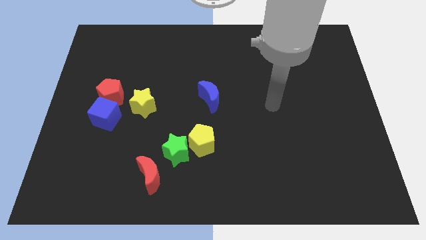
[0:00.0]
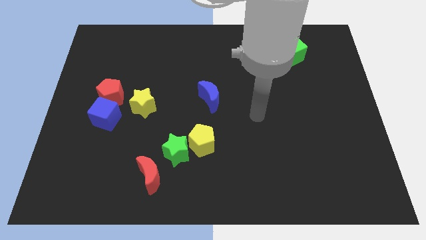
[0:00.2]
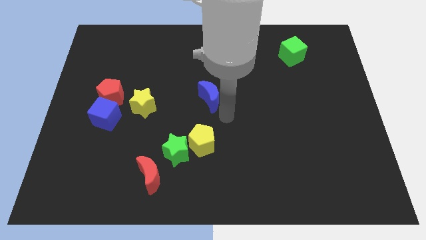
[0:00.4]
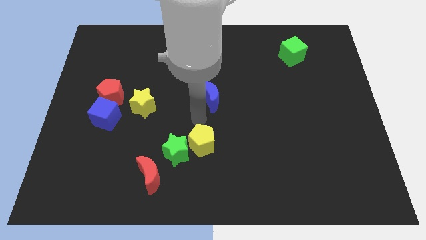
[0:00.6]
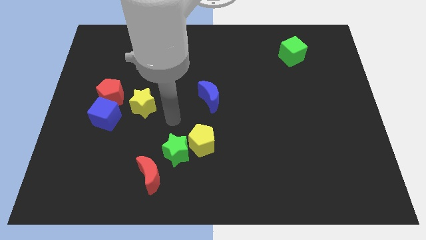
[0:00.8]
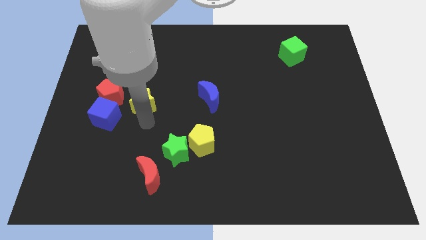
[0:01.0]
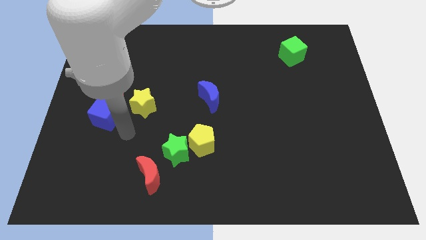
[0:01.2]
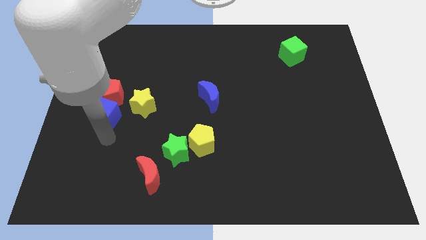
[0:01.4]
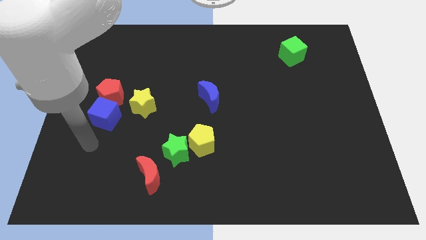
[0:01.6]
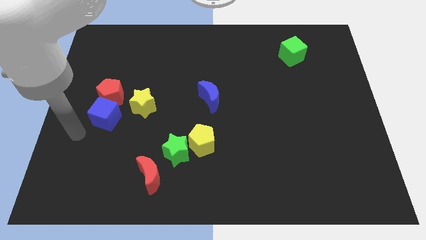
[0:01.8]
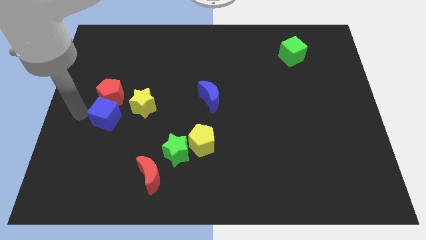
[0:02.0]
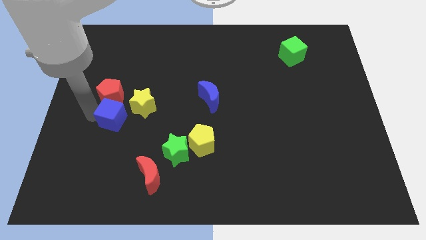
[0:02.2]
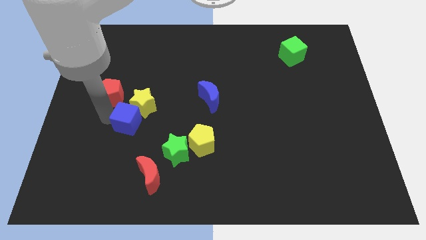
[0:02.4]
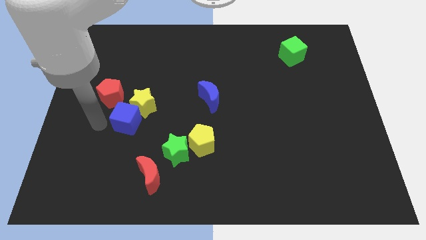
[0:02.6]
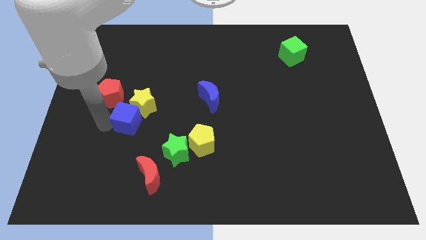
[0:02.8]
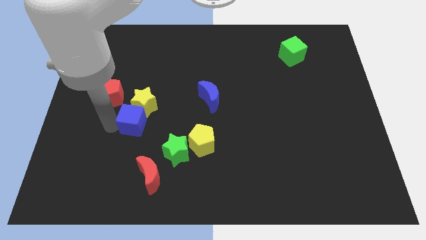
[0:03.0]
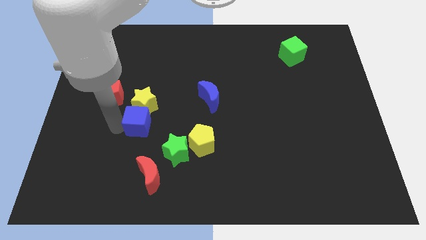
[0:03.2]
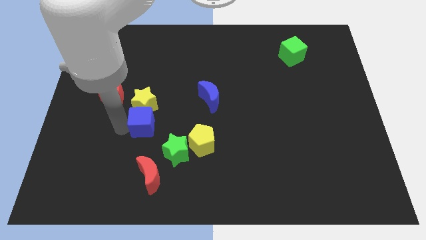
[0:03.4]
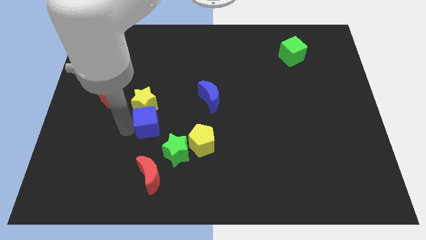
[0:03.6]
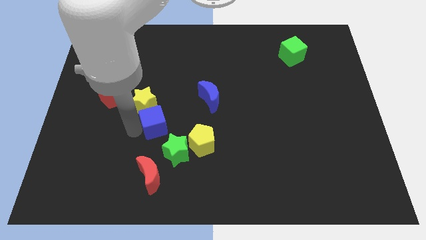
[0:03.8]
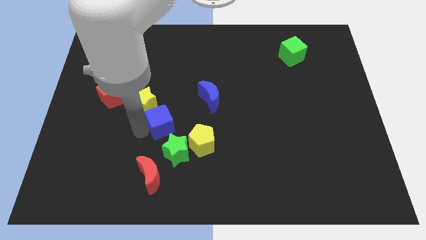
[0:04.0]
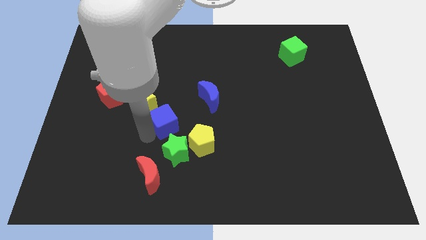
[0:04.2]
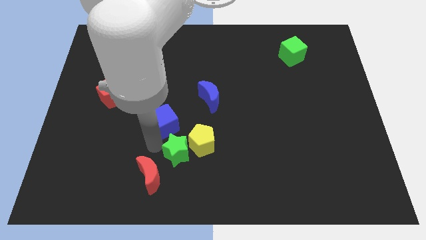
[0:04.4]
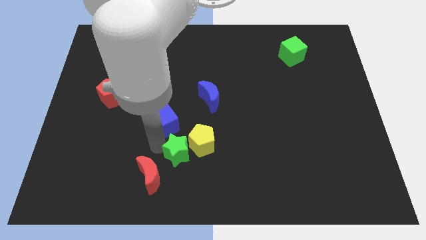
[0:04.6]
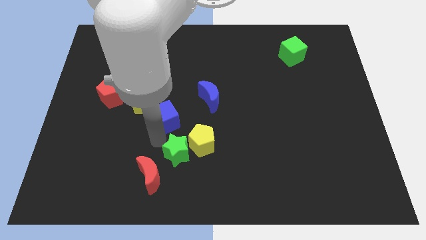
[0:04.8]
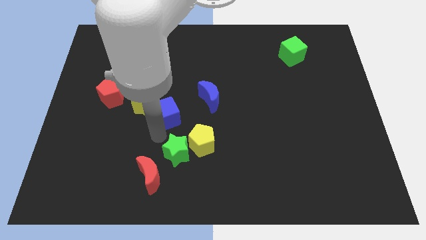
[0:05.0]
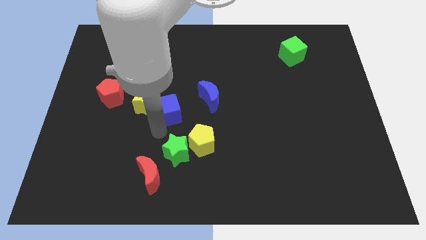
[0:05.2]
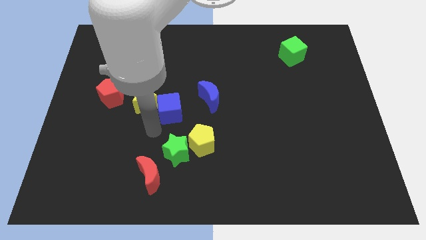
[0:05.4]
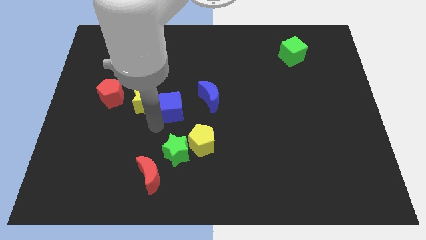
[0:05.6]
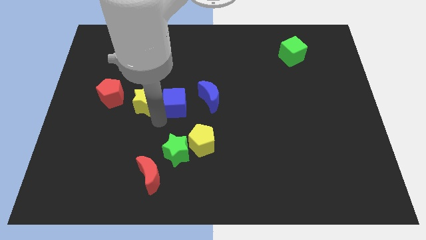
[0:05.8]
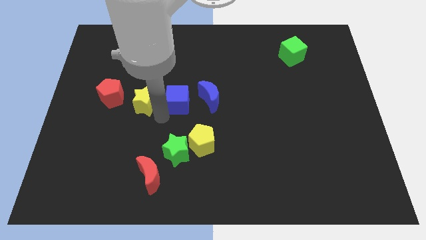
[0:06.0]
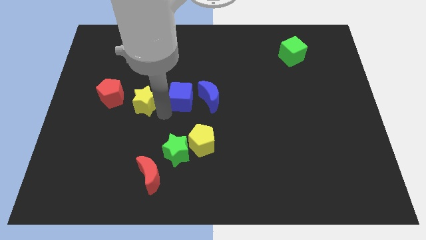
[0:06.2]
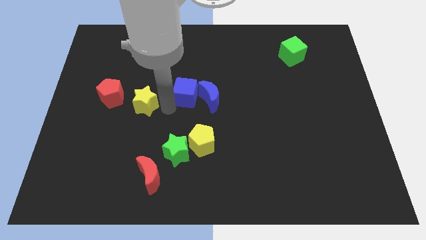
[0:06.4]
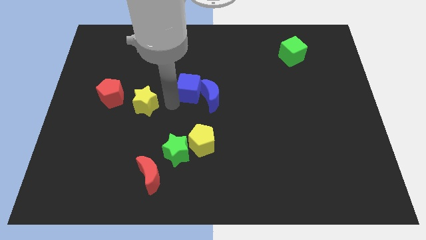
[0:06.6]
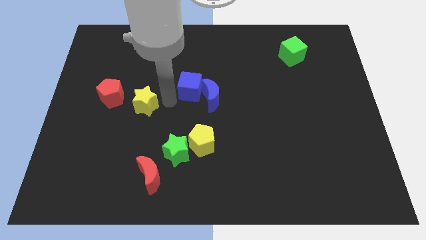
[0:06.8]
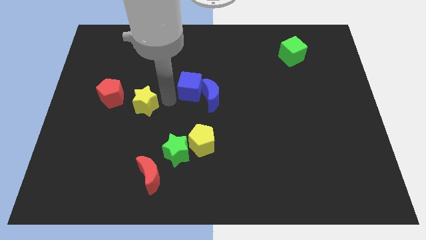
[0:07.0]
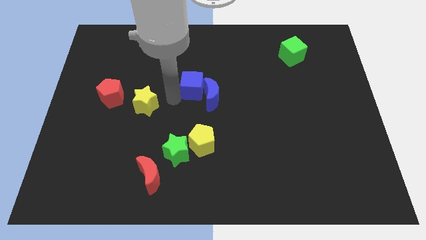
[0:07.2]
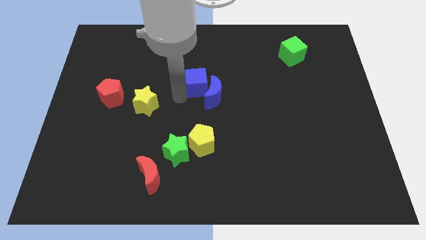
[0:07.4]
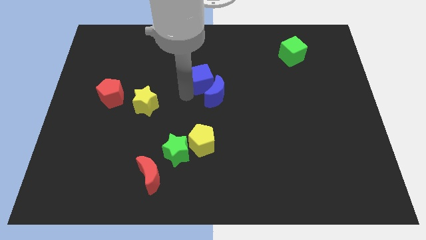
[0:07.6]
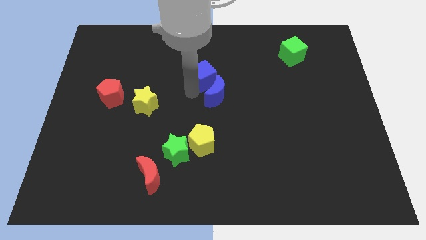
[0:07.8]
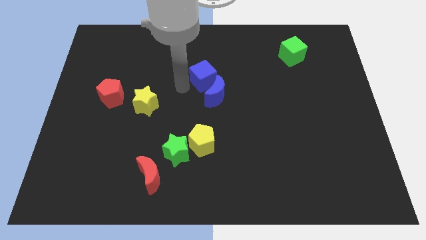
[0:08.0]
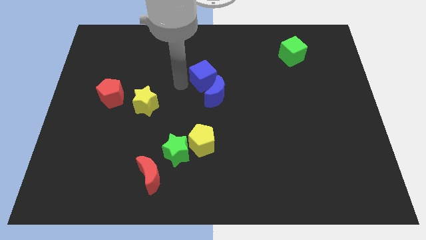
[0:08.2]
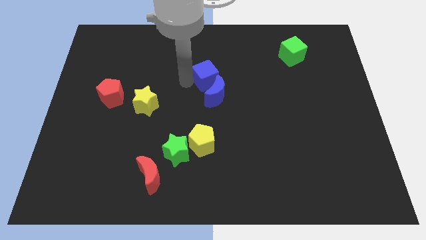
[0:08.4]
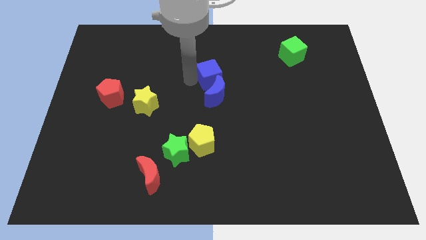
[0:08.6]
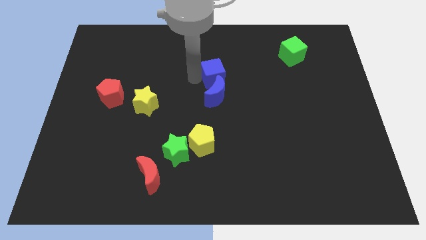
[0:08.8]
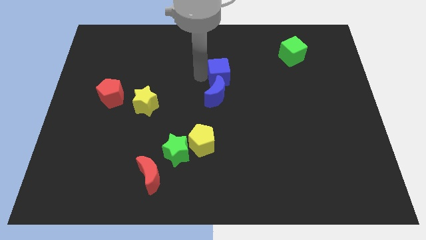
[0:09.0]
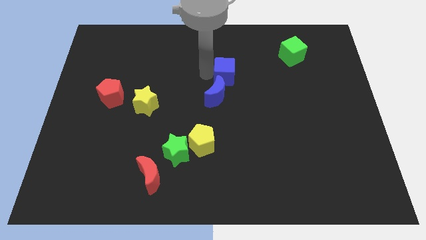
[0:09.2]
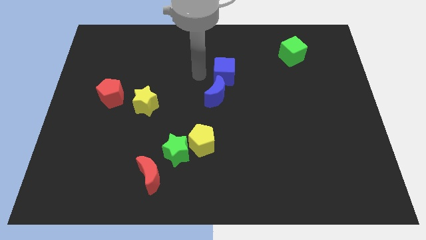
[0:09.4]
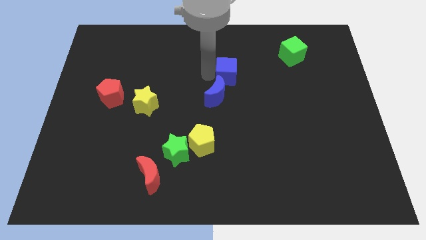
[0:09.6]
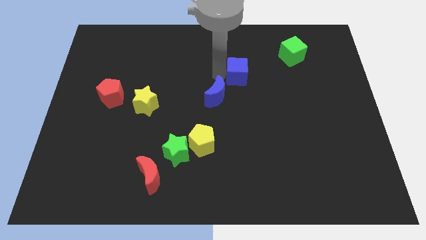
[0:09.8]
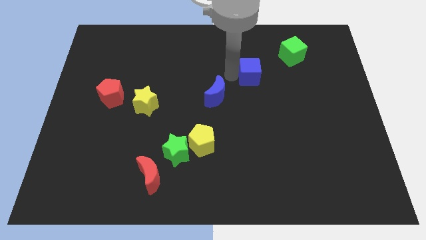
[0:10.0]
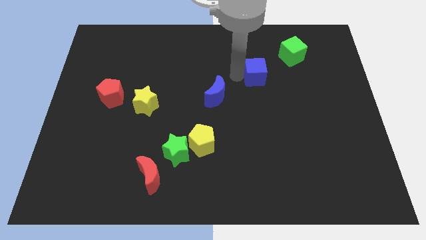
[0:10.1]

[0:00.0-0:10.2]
slide the blue cube to the bottom left side of the green cube

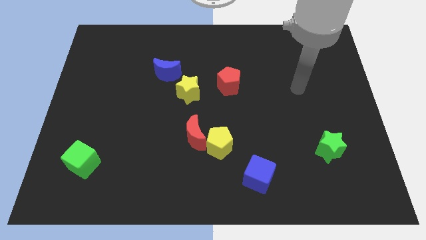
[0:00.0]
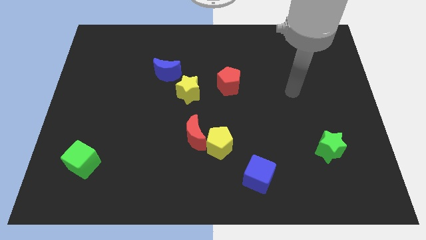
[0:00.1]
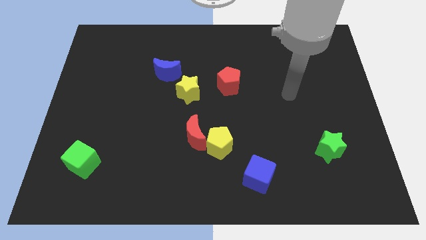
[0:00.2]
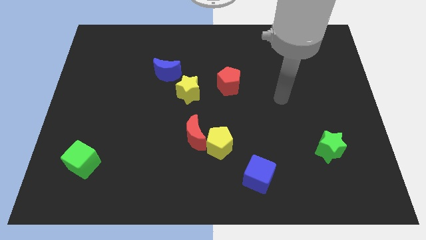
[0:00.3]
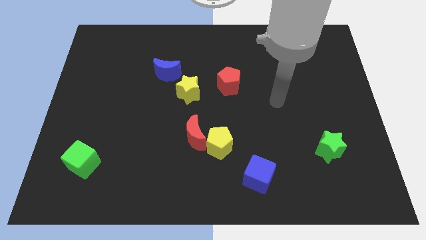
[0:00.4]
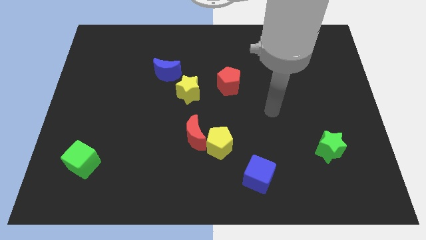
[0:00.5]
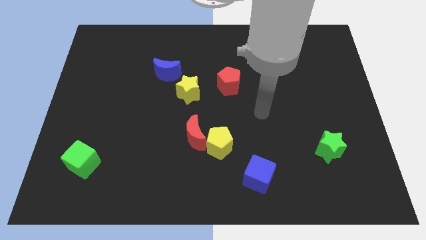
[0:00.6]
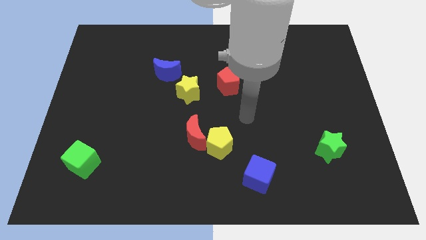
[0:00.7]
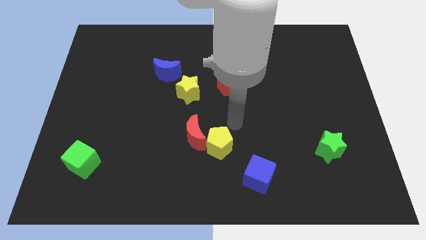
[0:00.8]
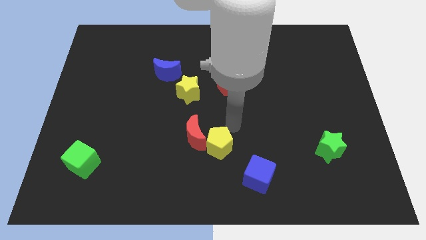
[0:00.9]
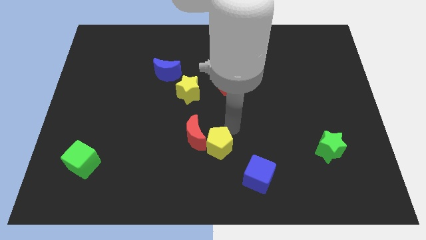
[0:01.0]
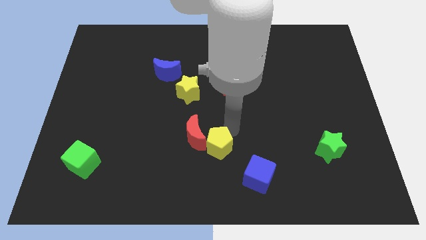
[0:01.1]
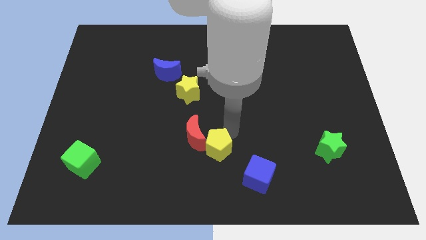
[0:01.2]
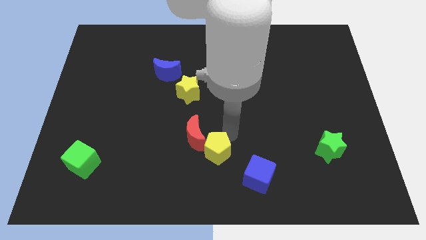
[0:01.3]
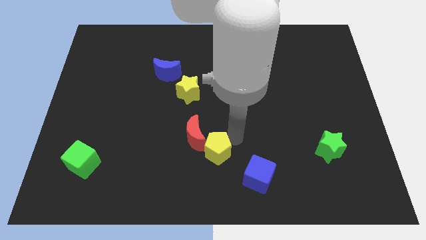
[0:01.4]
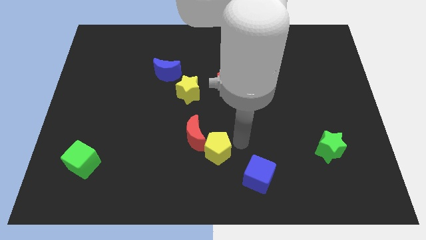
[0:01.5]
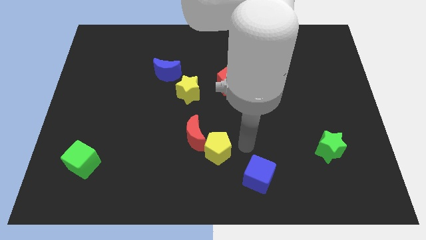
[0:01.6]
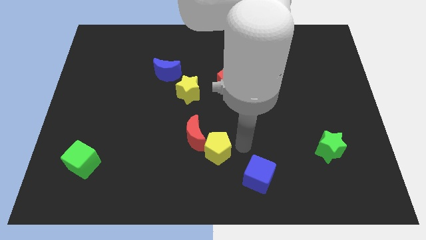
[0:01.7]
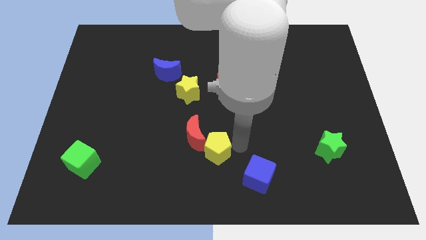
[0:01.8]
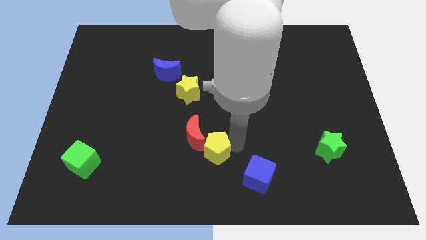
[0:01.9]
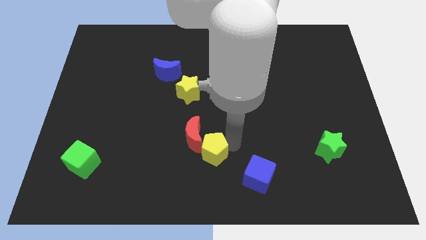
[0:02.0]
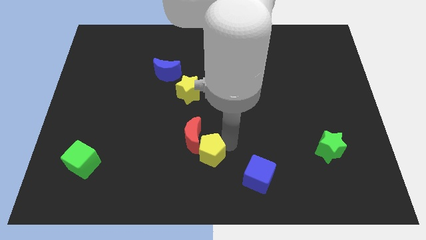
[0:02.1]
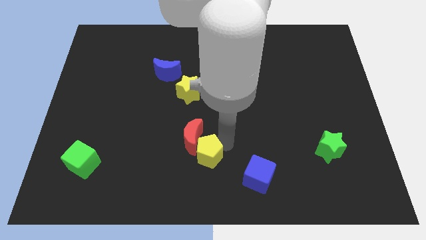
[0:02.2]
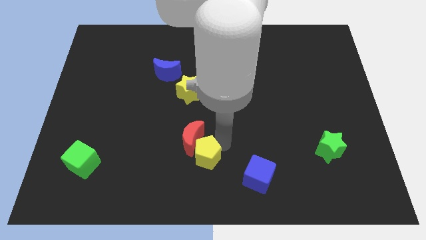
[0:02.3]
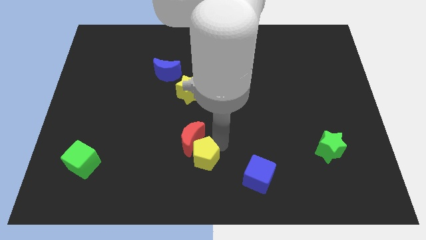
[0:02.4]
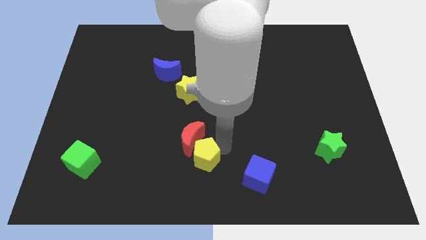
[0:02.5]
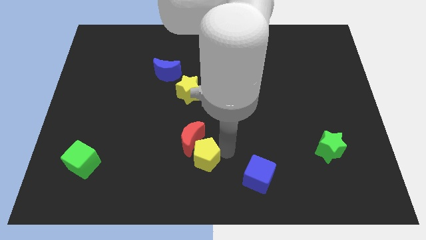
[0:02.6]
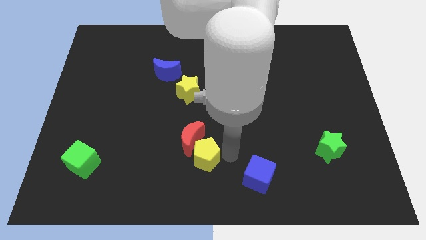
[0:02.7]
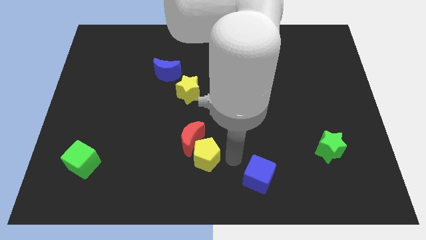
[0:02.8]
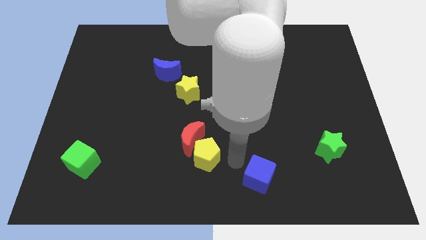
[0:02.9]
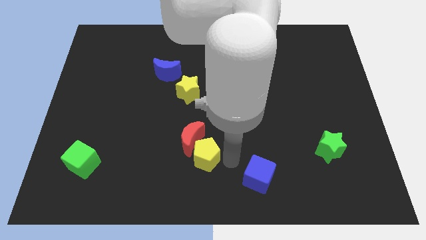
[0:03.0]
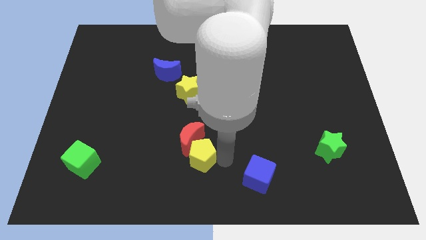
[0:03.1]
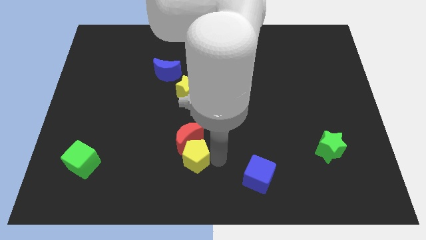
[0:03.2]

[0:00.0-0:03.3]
slide the yellow pentagon to the bottom left side of the red moon
